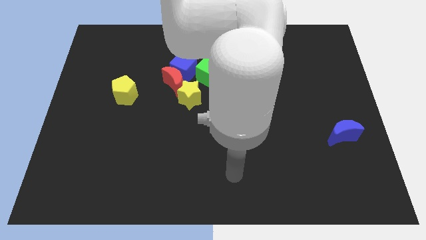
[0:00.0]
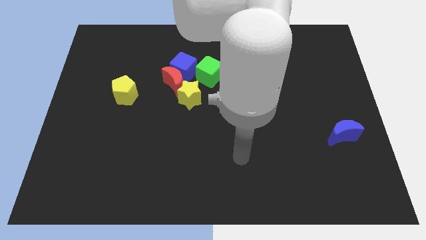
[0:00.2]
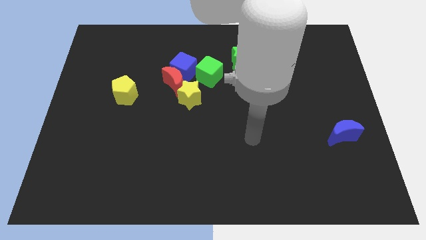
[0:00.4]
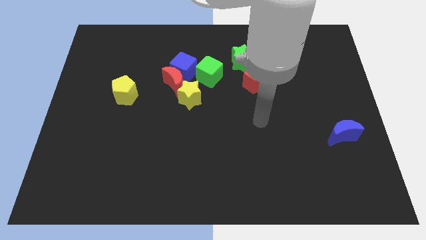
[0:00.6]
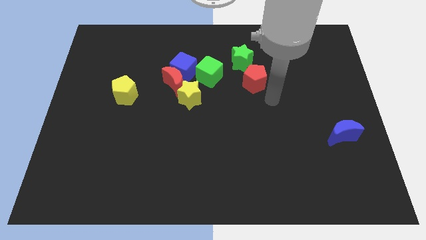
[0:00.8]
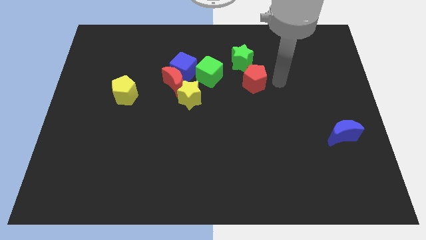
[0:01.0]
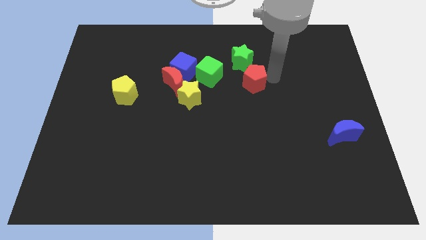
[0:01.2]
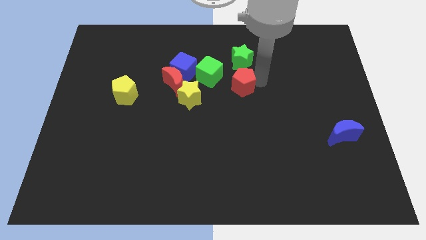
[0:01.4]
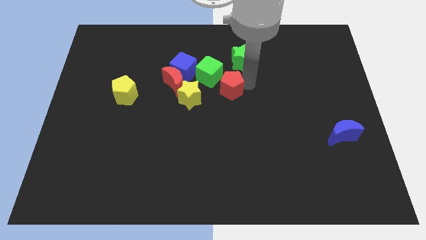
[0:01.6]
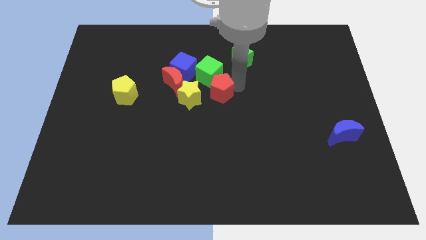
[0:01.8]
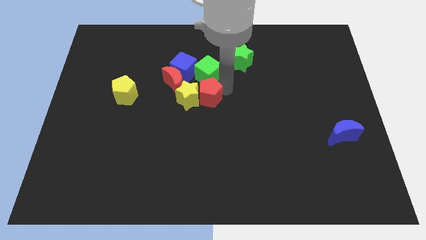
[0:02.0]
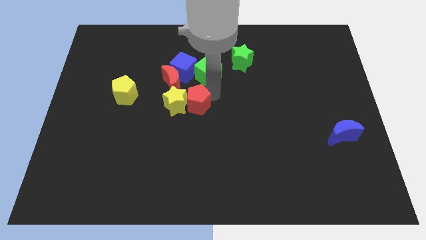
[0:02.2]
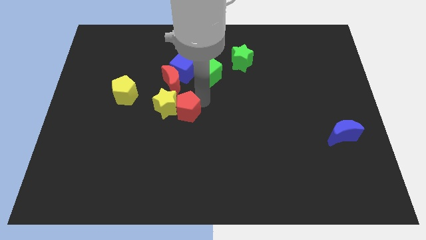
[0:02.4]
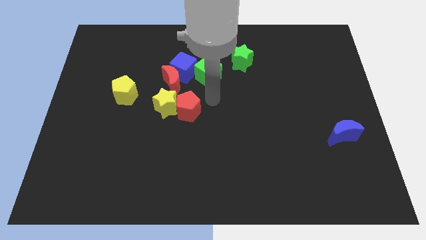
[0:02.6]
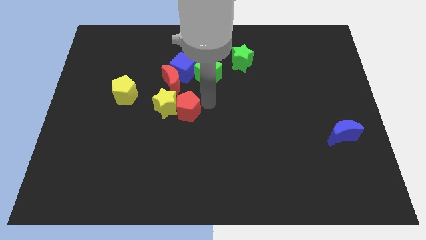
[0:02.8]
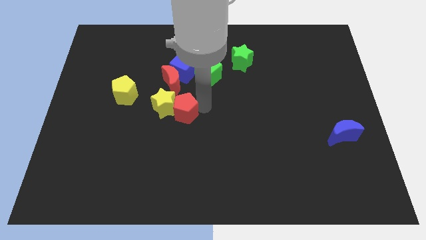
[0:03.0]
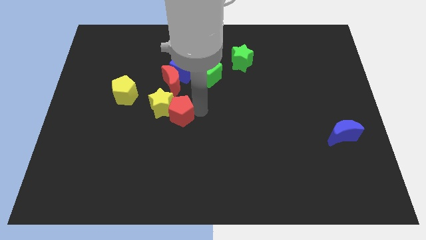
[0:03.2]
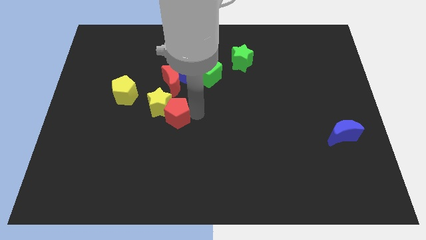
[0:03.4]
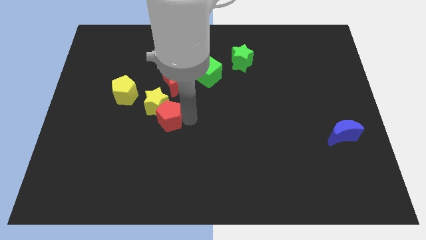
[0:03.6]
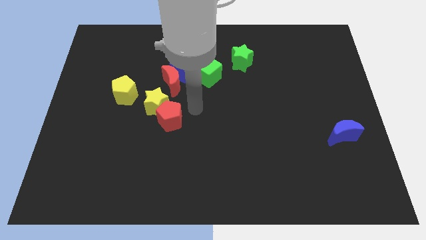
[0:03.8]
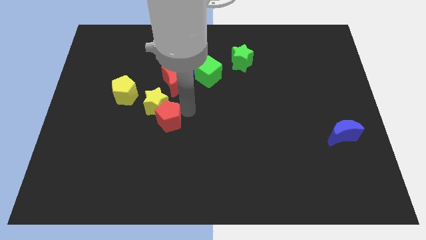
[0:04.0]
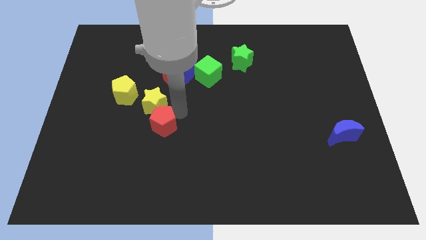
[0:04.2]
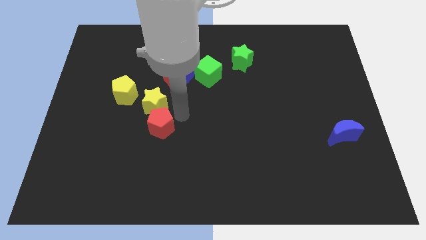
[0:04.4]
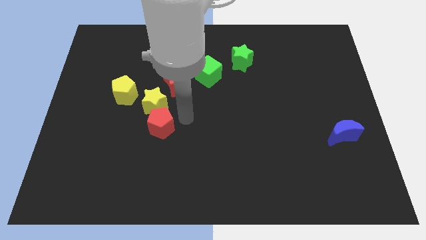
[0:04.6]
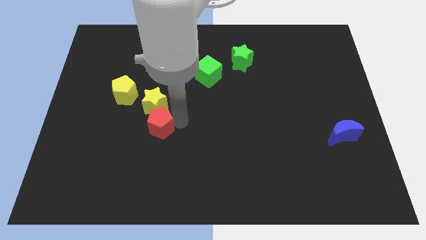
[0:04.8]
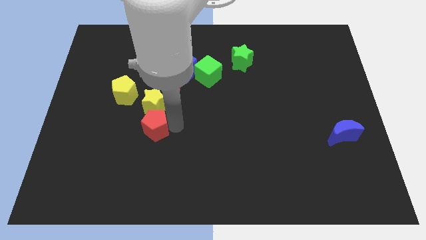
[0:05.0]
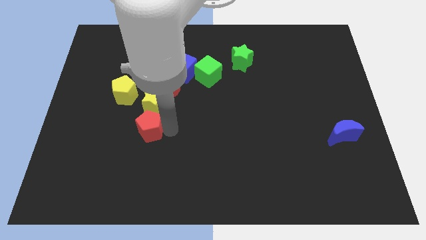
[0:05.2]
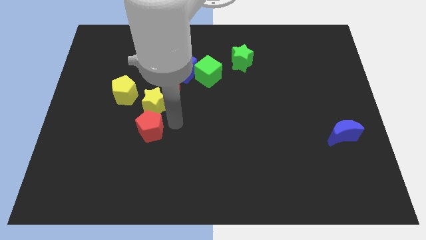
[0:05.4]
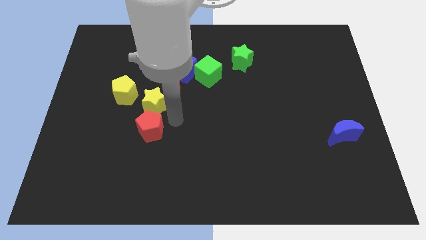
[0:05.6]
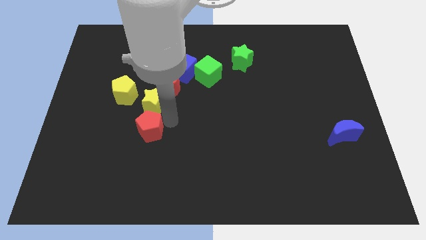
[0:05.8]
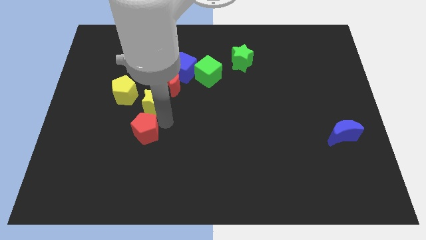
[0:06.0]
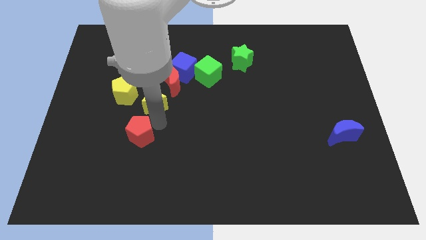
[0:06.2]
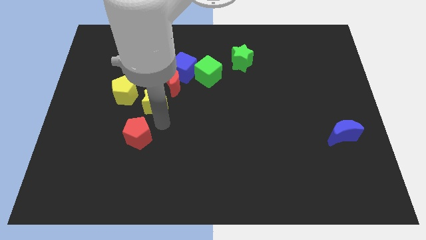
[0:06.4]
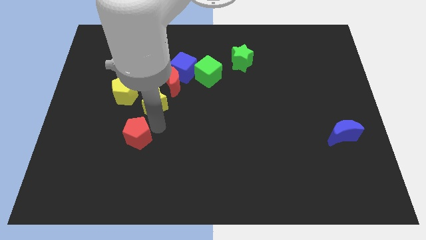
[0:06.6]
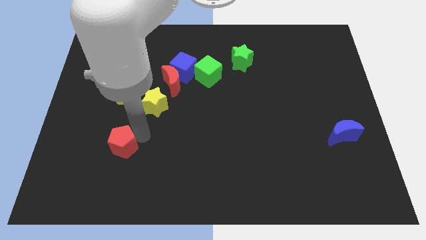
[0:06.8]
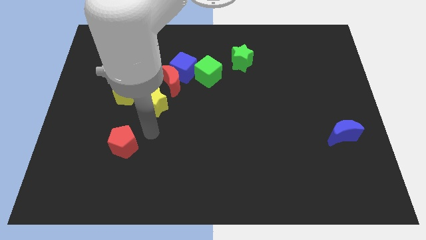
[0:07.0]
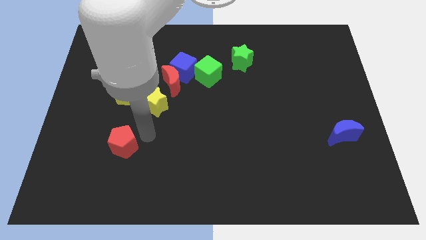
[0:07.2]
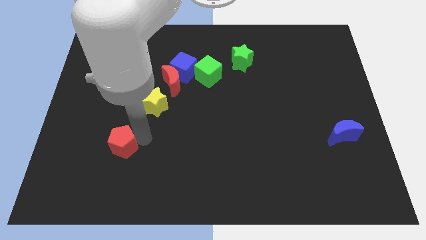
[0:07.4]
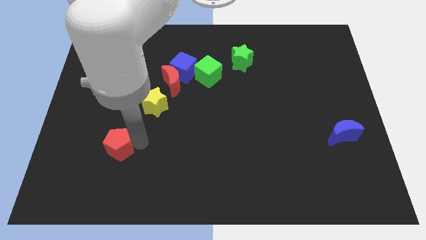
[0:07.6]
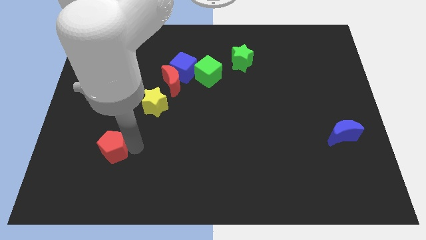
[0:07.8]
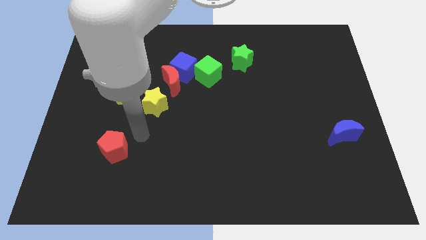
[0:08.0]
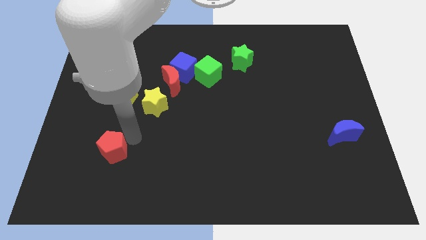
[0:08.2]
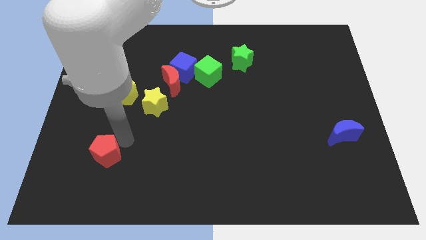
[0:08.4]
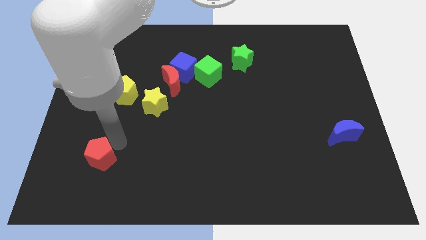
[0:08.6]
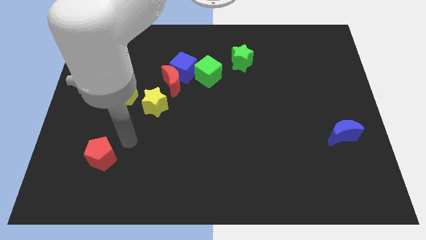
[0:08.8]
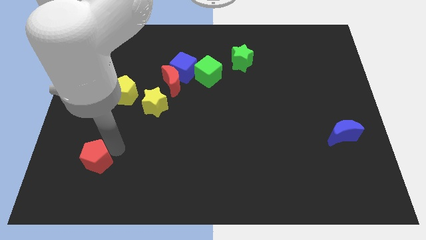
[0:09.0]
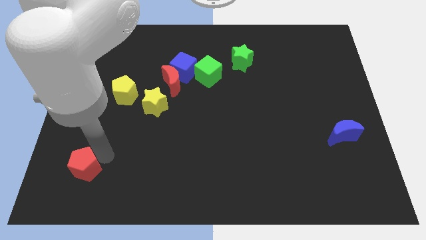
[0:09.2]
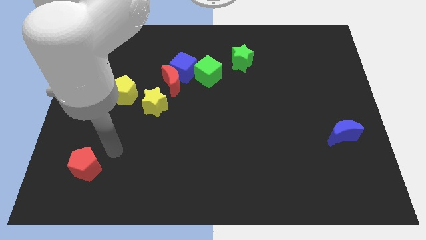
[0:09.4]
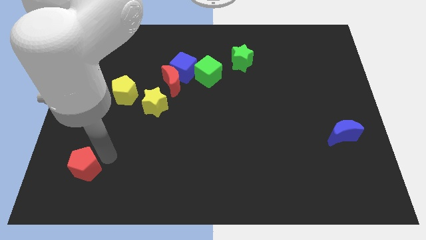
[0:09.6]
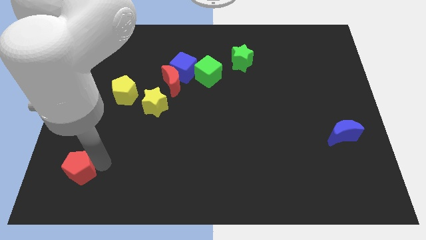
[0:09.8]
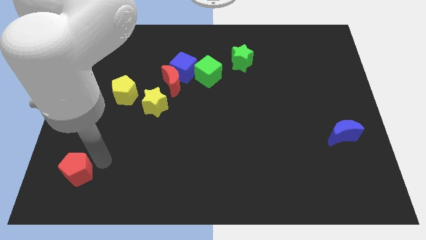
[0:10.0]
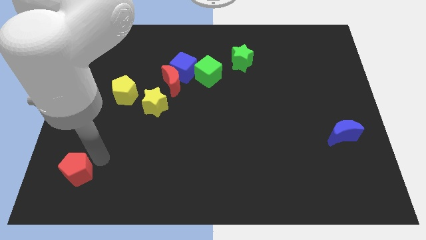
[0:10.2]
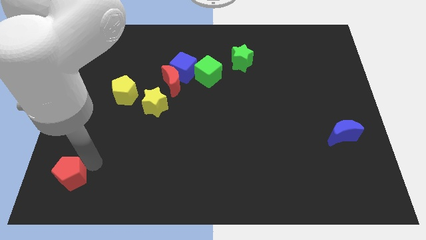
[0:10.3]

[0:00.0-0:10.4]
push the red pentagon to the bottom left of the board
